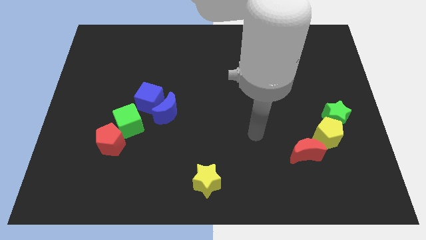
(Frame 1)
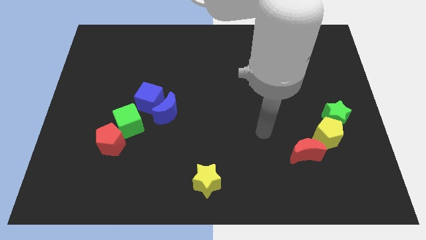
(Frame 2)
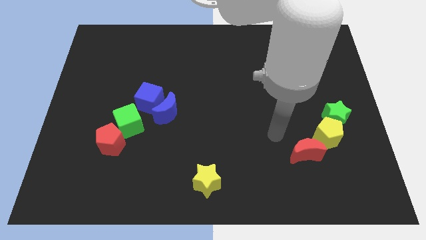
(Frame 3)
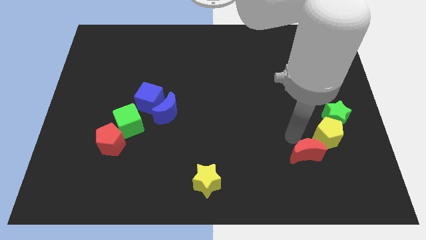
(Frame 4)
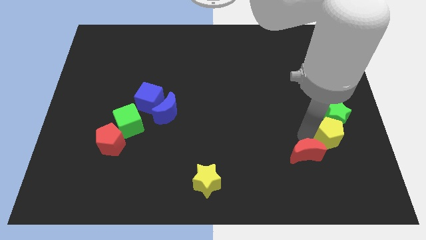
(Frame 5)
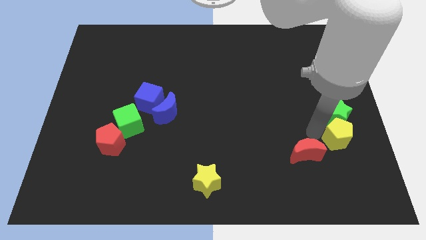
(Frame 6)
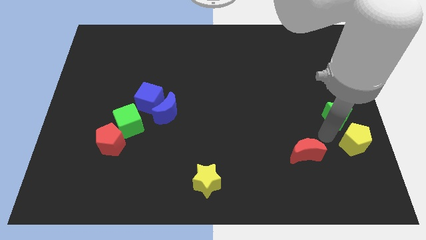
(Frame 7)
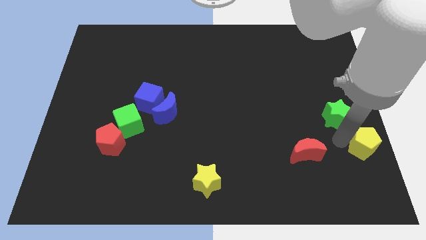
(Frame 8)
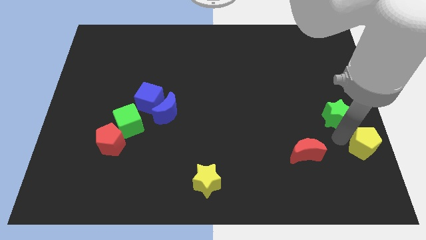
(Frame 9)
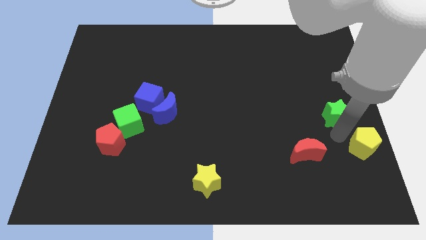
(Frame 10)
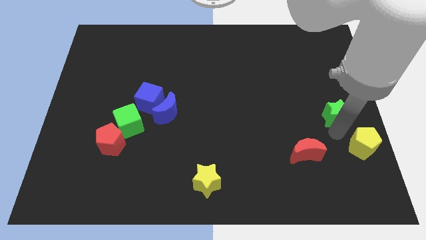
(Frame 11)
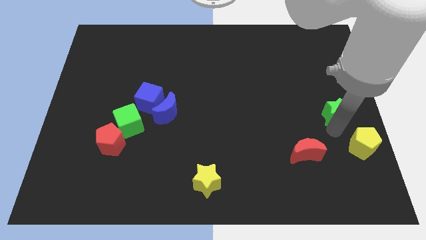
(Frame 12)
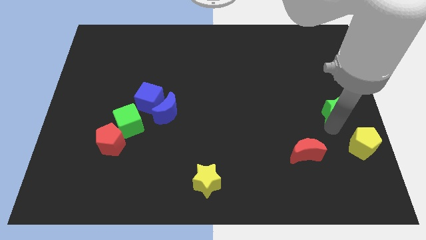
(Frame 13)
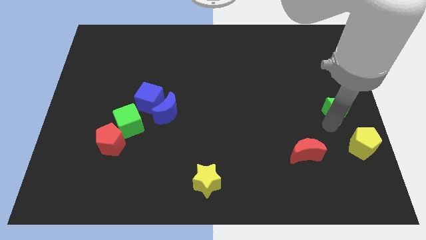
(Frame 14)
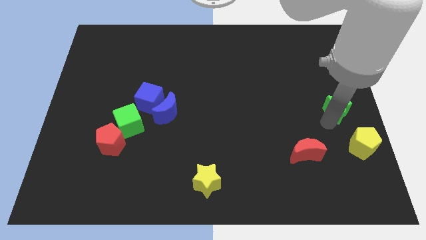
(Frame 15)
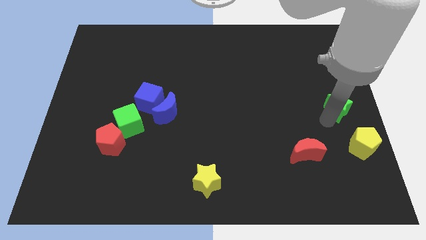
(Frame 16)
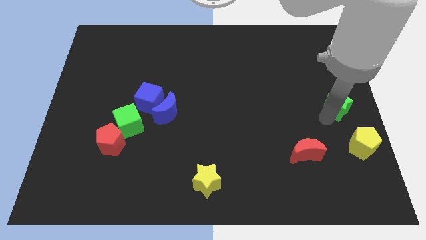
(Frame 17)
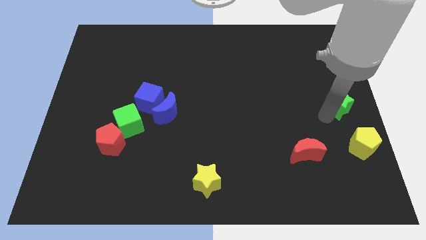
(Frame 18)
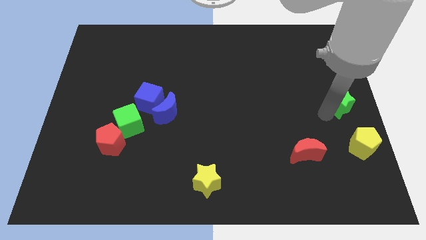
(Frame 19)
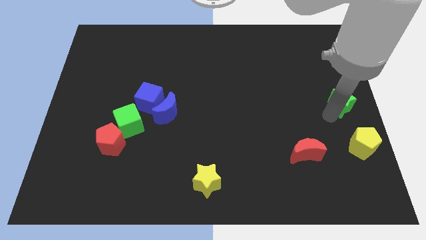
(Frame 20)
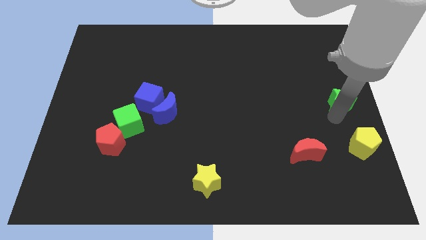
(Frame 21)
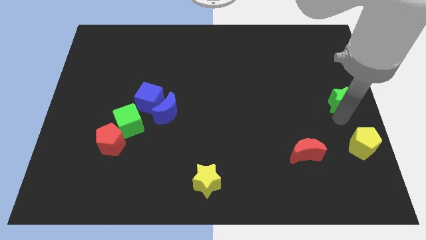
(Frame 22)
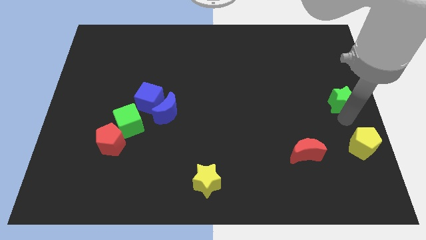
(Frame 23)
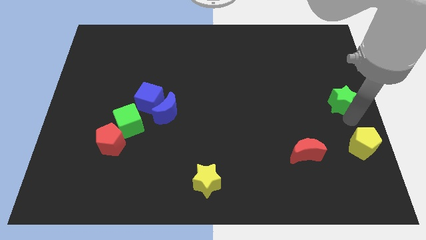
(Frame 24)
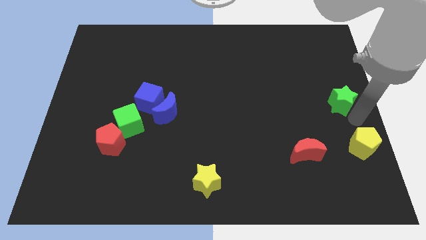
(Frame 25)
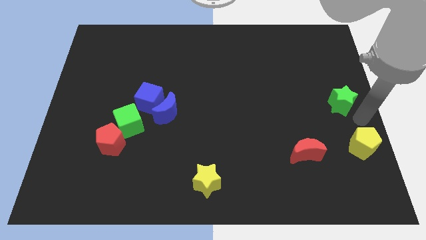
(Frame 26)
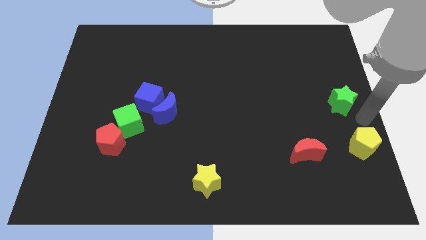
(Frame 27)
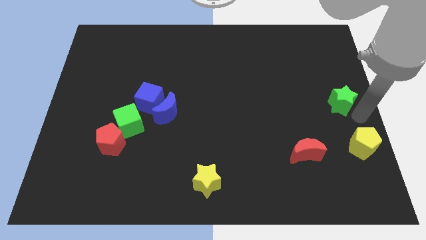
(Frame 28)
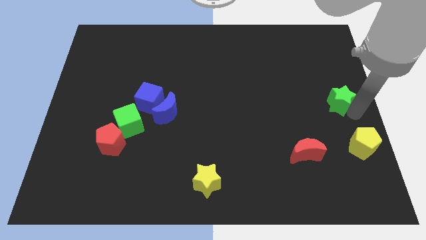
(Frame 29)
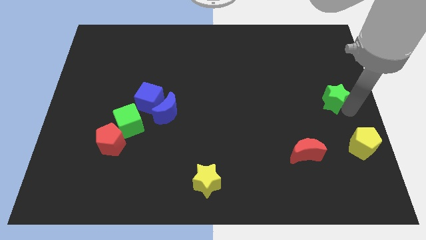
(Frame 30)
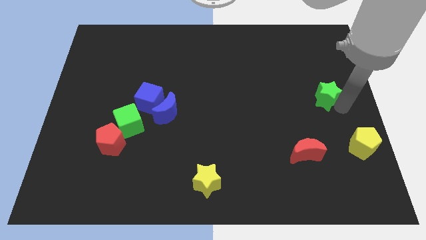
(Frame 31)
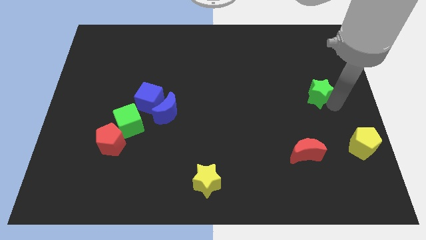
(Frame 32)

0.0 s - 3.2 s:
slide the green star somewhat up

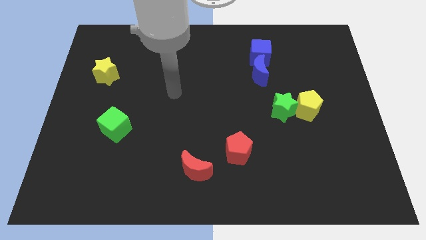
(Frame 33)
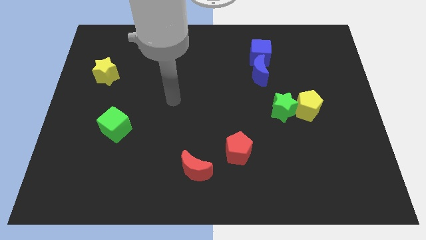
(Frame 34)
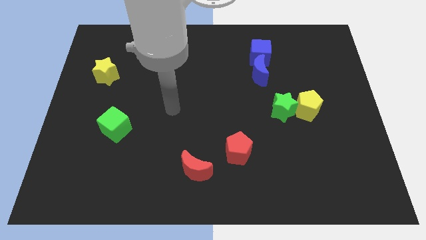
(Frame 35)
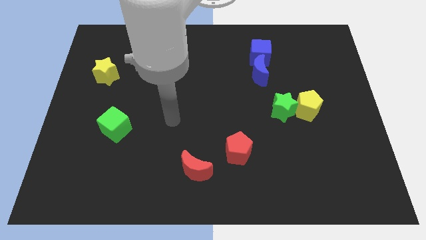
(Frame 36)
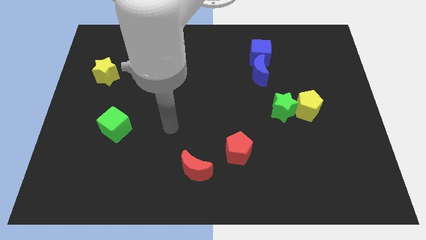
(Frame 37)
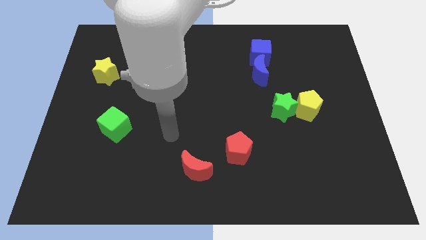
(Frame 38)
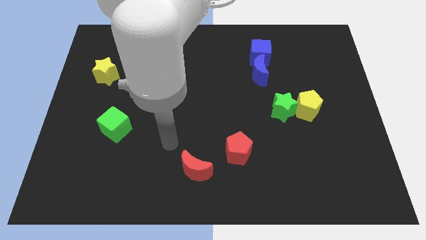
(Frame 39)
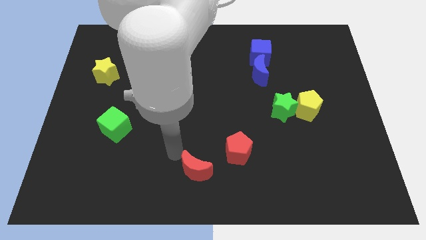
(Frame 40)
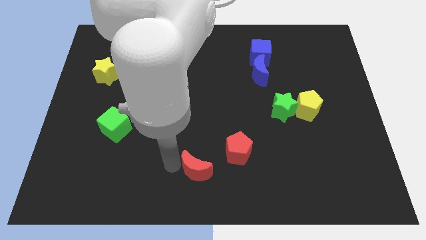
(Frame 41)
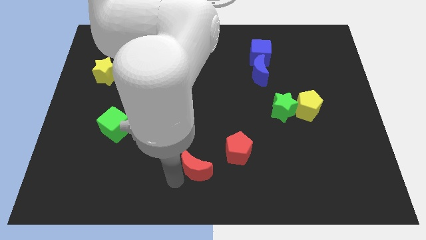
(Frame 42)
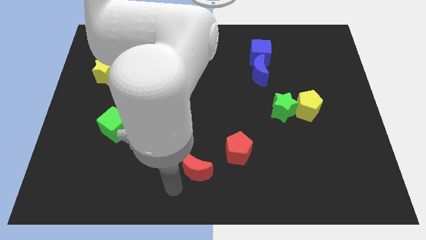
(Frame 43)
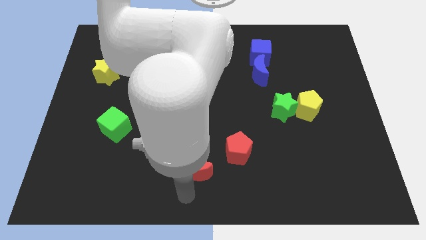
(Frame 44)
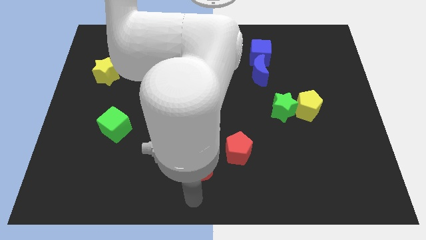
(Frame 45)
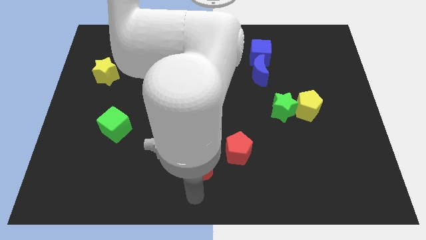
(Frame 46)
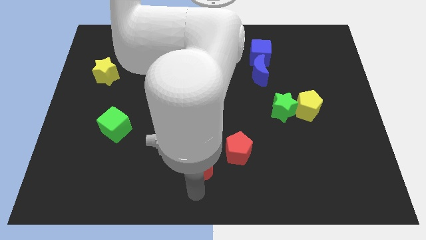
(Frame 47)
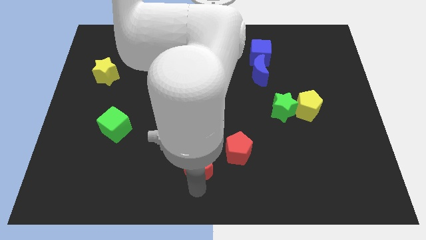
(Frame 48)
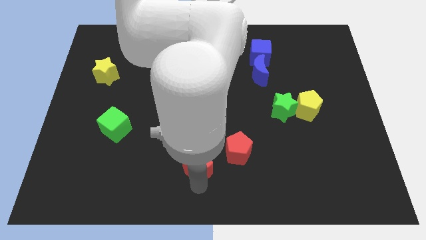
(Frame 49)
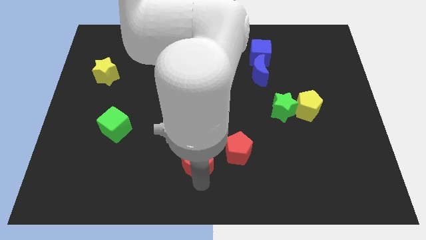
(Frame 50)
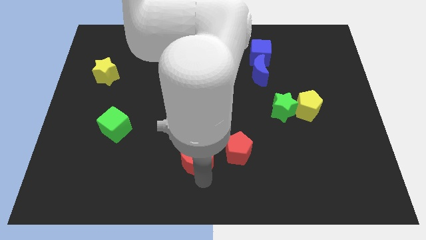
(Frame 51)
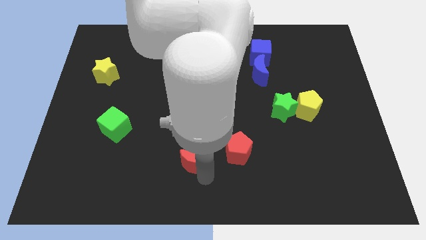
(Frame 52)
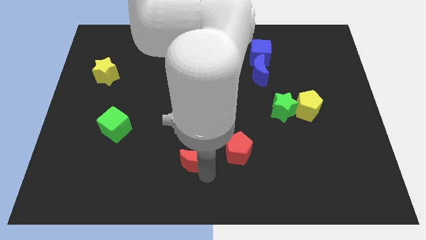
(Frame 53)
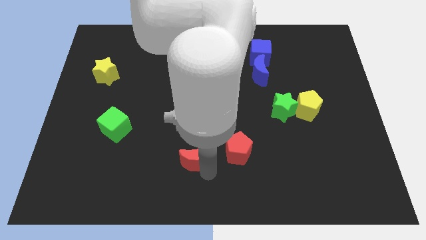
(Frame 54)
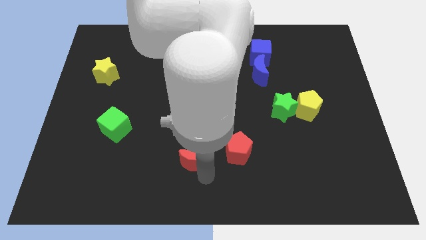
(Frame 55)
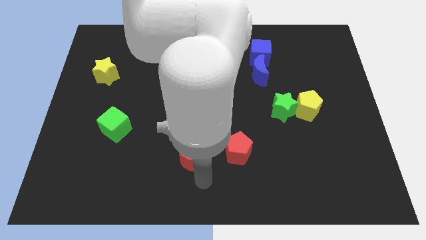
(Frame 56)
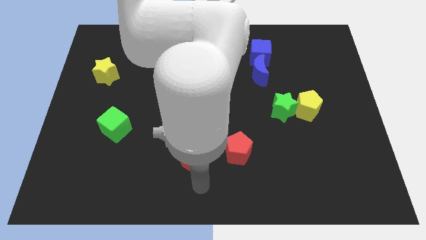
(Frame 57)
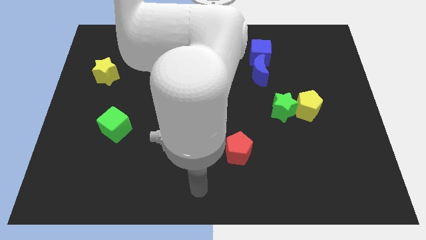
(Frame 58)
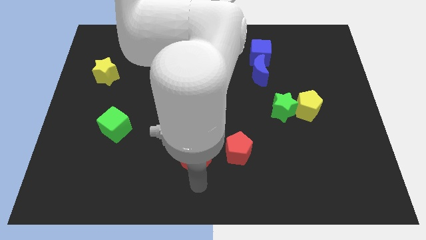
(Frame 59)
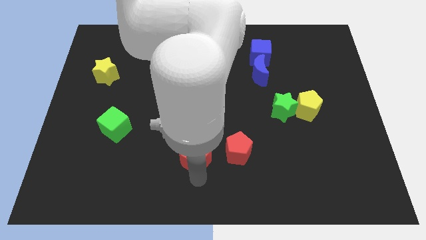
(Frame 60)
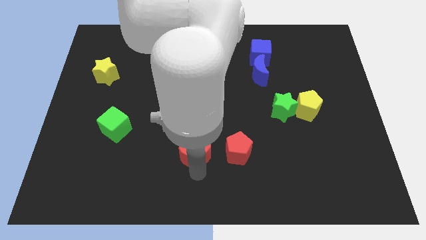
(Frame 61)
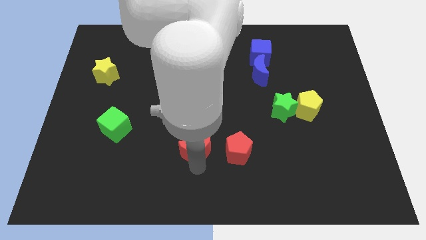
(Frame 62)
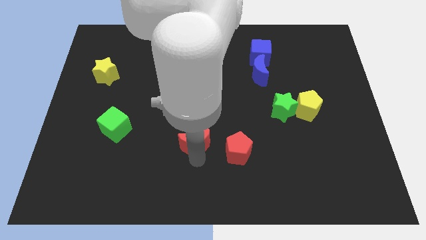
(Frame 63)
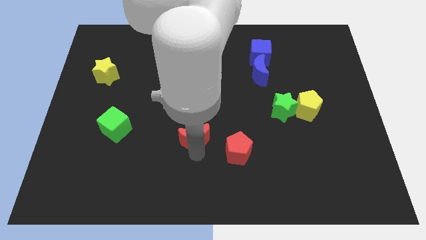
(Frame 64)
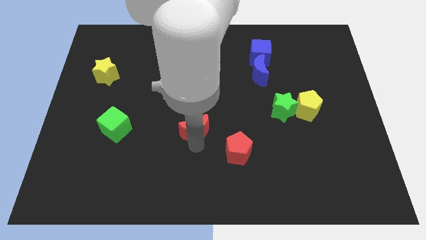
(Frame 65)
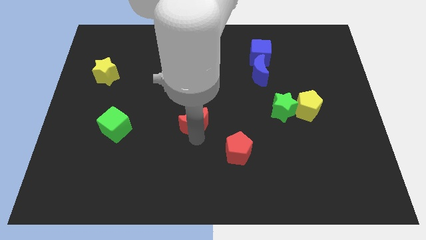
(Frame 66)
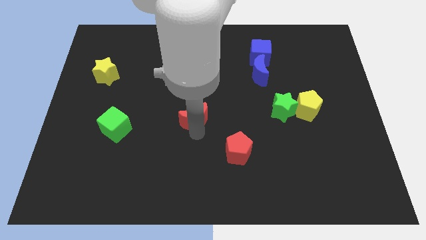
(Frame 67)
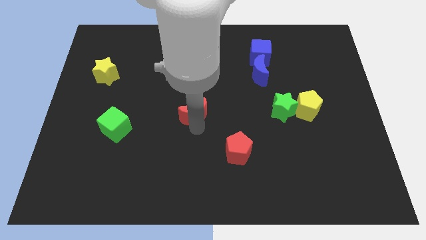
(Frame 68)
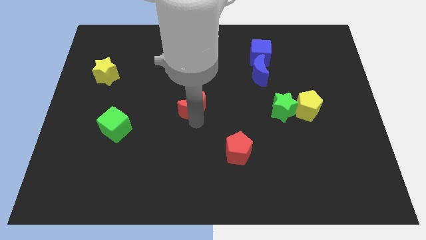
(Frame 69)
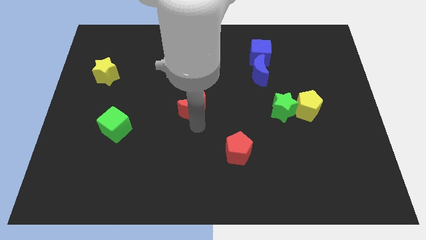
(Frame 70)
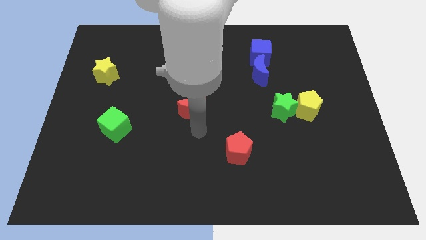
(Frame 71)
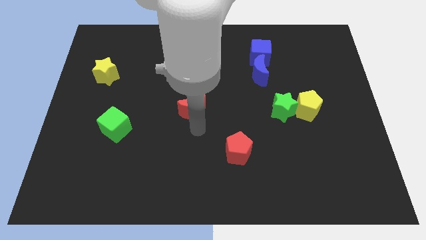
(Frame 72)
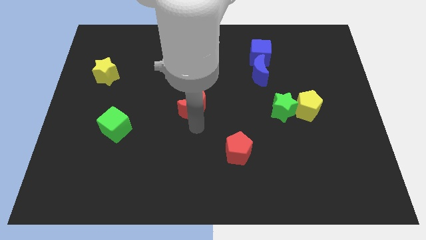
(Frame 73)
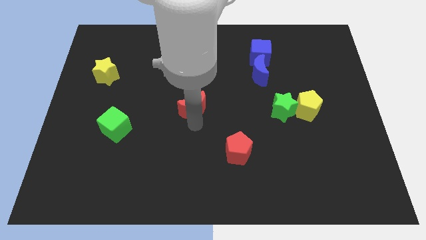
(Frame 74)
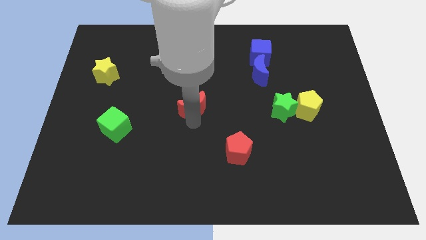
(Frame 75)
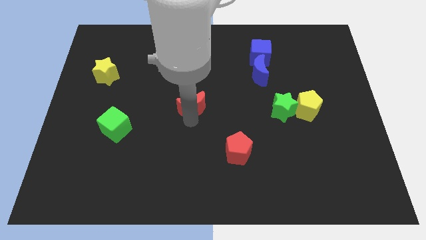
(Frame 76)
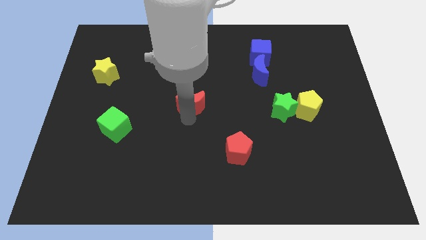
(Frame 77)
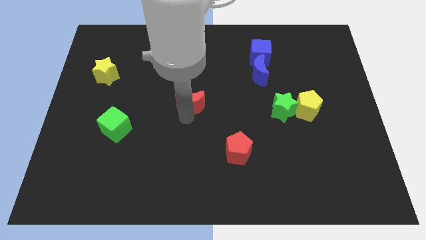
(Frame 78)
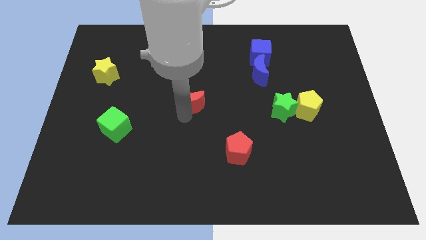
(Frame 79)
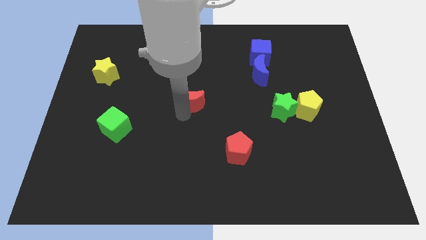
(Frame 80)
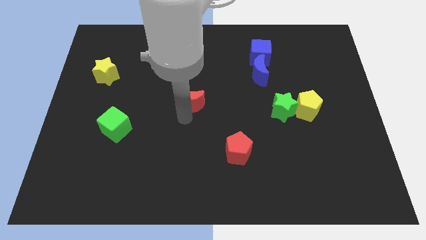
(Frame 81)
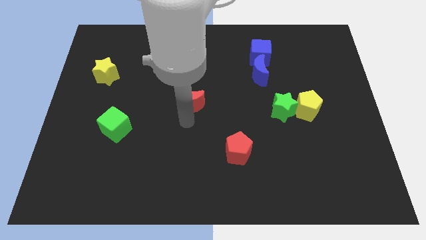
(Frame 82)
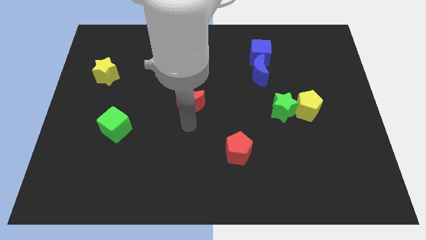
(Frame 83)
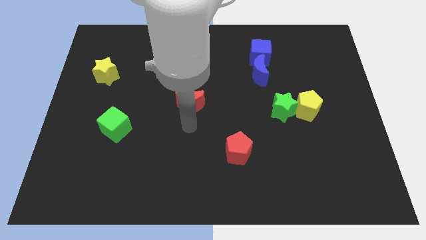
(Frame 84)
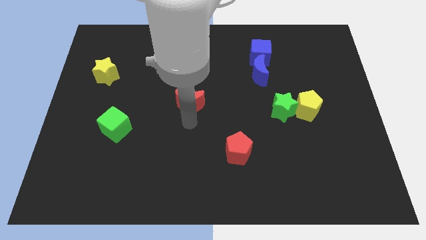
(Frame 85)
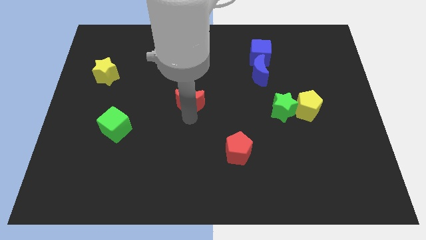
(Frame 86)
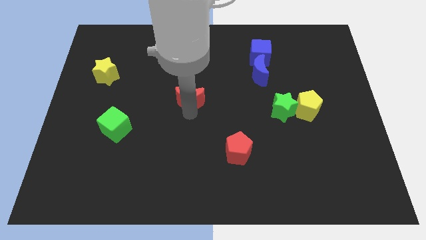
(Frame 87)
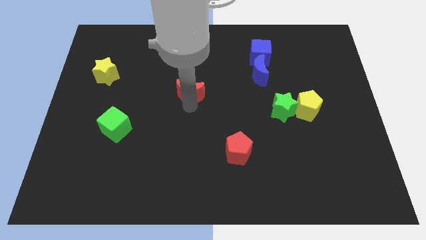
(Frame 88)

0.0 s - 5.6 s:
move the red moon up
